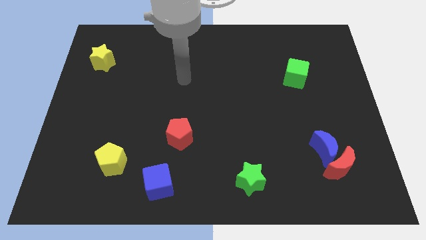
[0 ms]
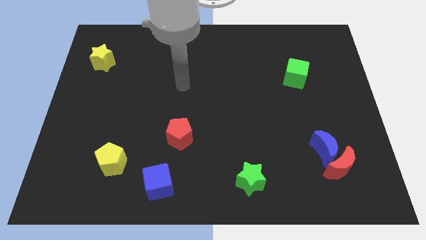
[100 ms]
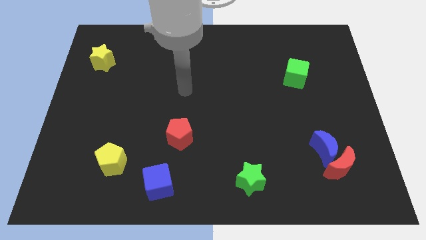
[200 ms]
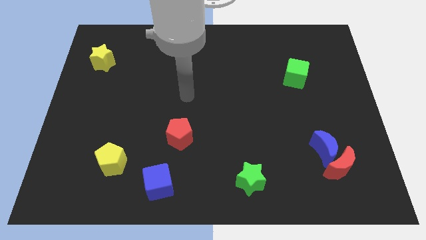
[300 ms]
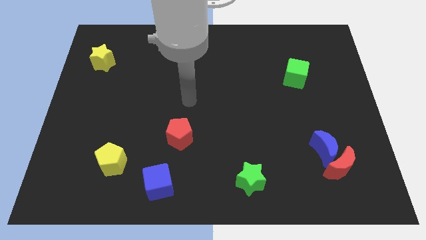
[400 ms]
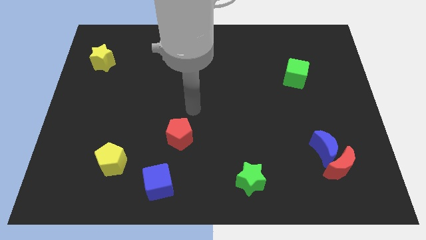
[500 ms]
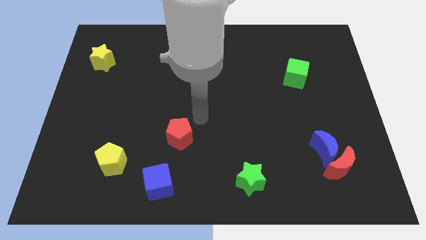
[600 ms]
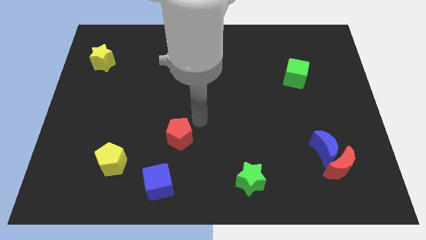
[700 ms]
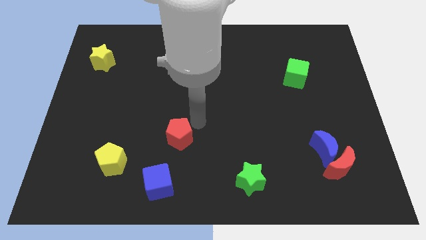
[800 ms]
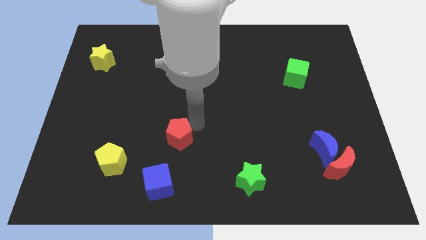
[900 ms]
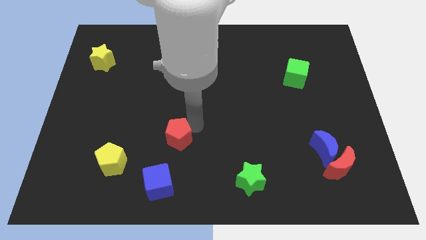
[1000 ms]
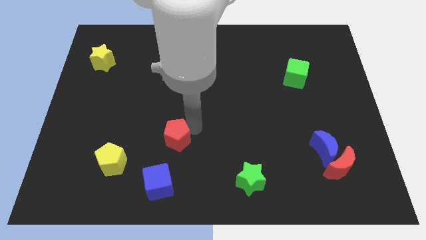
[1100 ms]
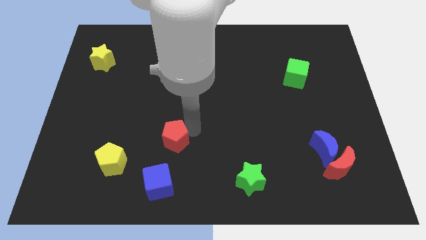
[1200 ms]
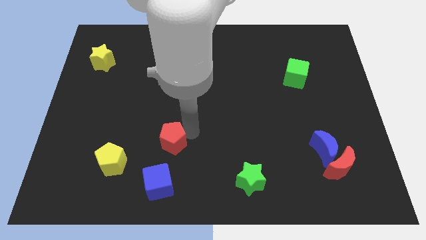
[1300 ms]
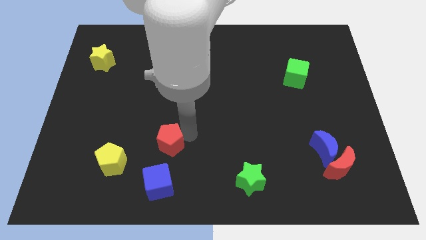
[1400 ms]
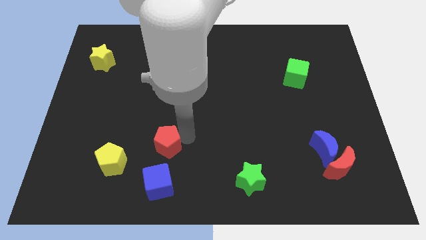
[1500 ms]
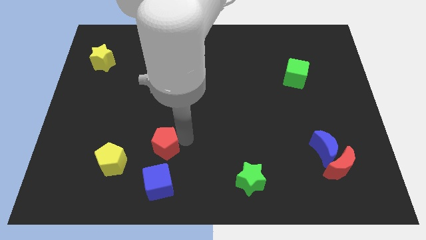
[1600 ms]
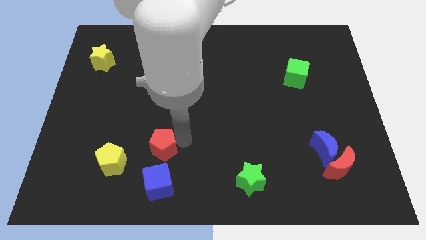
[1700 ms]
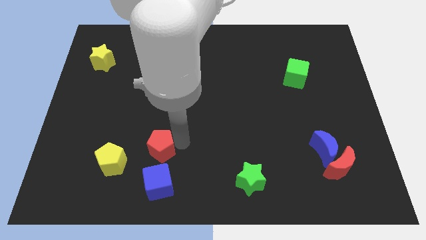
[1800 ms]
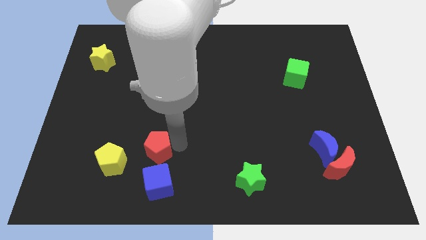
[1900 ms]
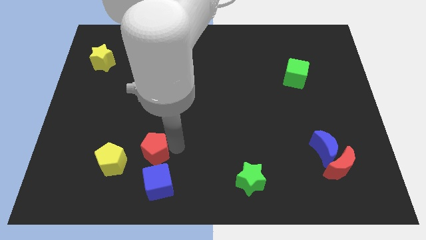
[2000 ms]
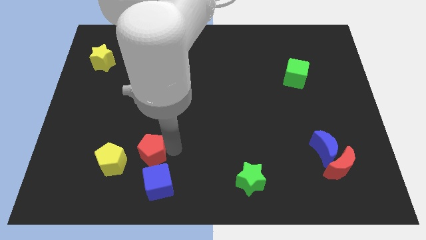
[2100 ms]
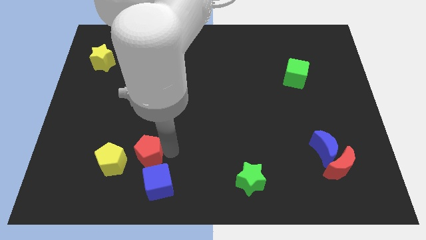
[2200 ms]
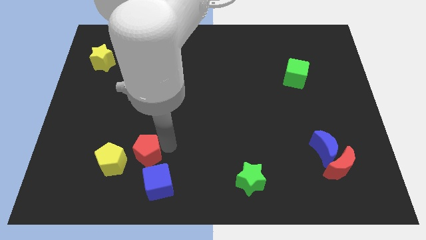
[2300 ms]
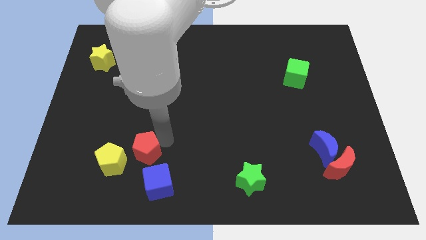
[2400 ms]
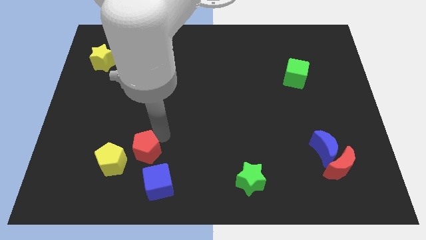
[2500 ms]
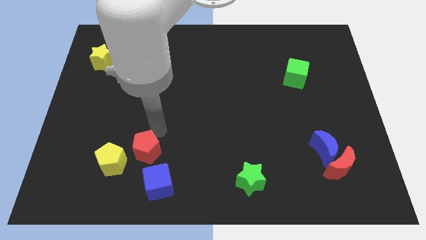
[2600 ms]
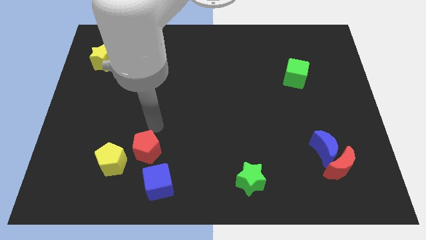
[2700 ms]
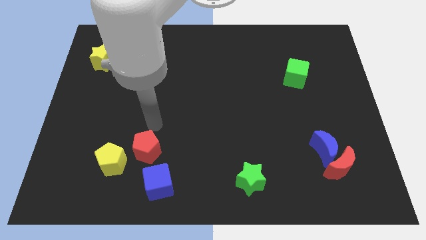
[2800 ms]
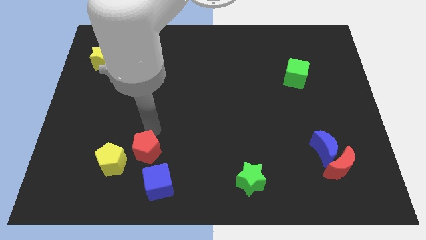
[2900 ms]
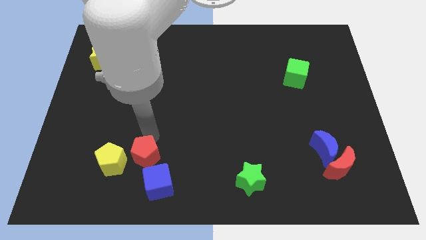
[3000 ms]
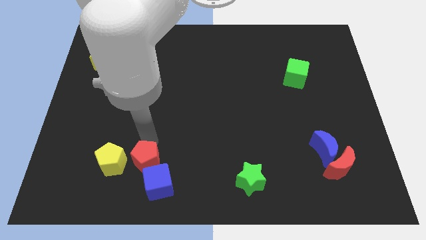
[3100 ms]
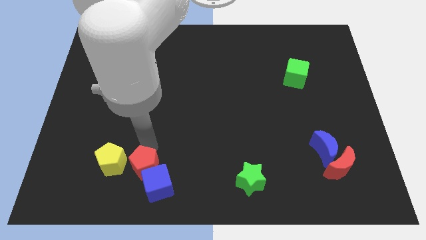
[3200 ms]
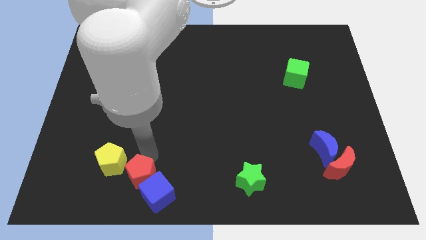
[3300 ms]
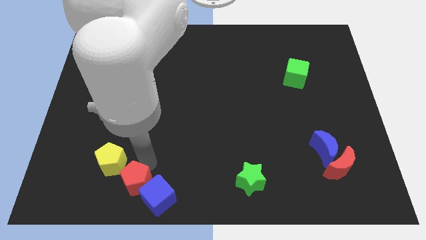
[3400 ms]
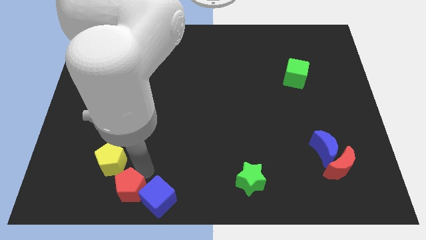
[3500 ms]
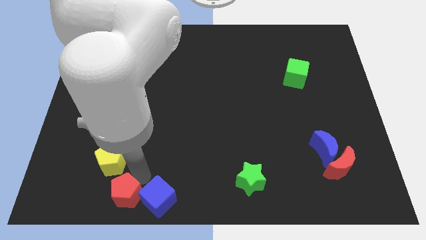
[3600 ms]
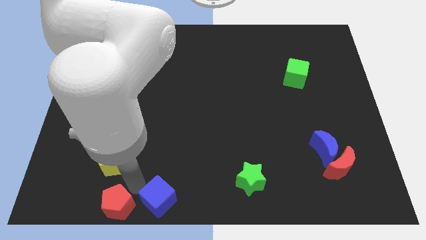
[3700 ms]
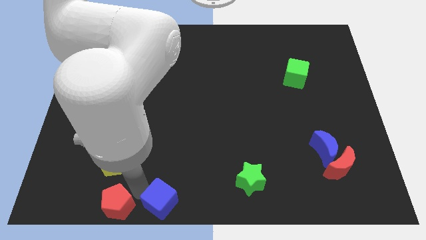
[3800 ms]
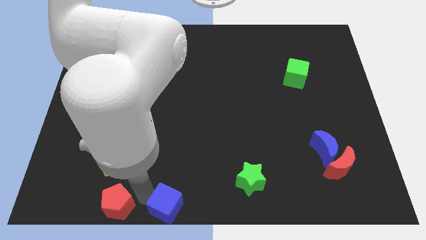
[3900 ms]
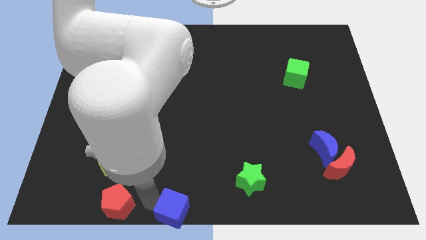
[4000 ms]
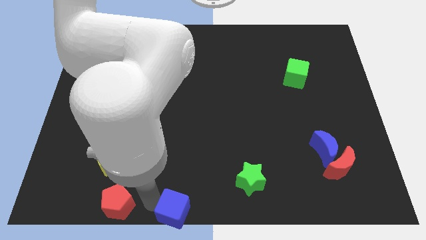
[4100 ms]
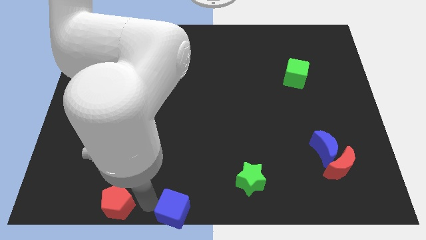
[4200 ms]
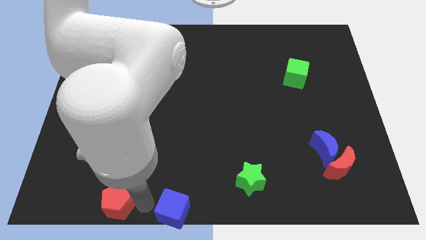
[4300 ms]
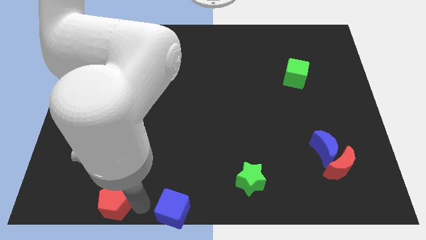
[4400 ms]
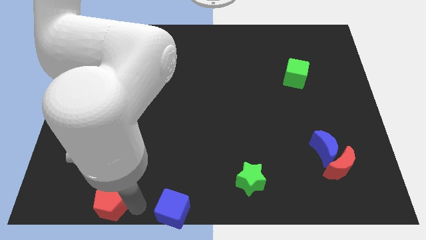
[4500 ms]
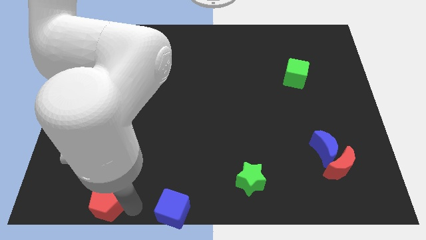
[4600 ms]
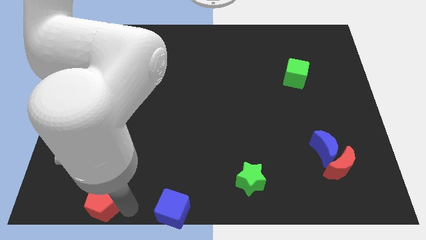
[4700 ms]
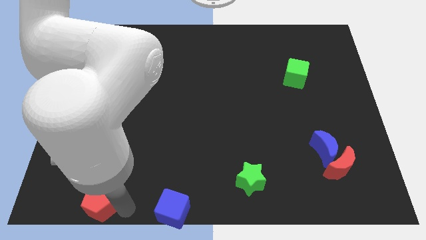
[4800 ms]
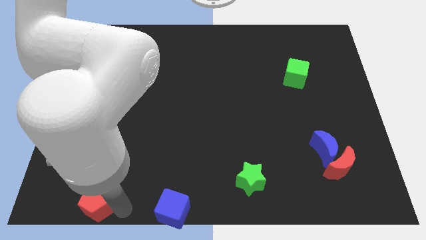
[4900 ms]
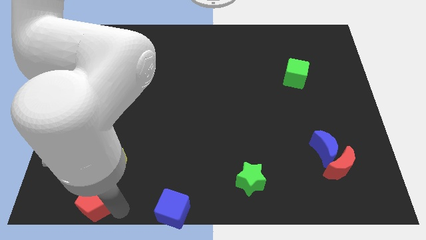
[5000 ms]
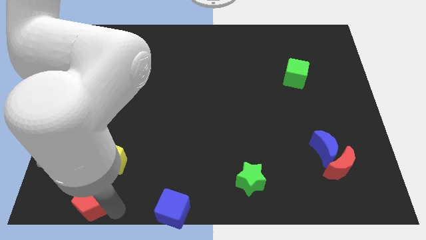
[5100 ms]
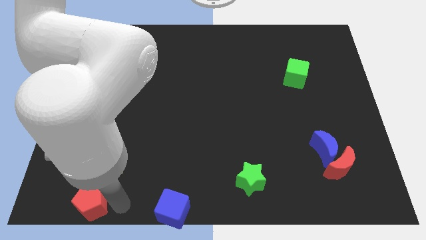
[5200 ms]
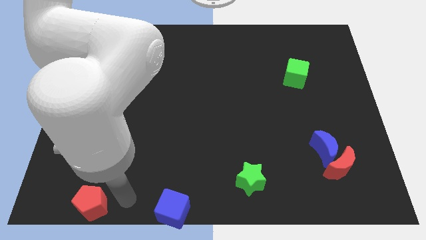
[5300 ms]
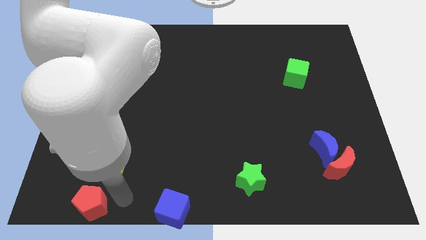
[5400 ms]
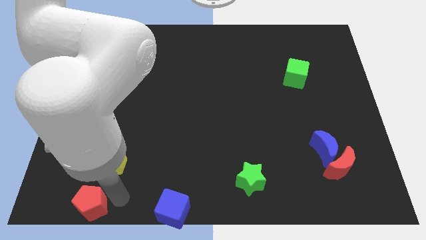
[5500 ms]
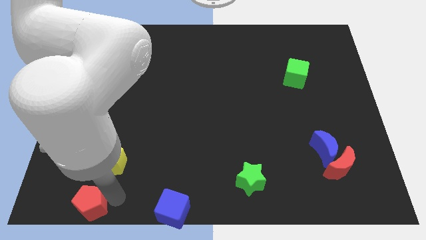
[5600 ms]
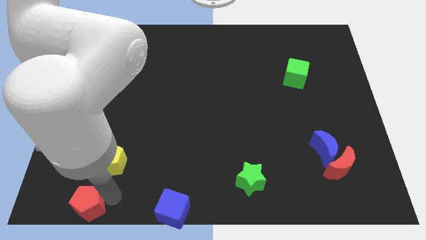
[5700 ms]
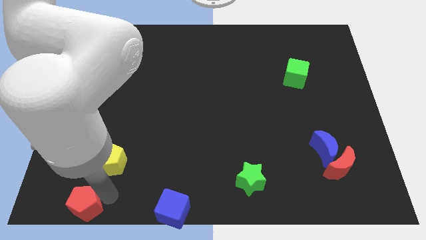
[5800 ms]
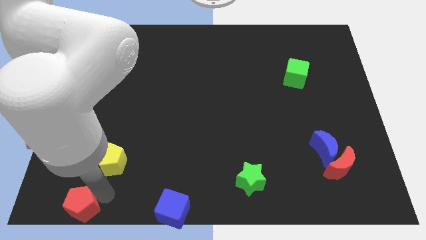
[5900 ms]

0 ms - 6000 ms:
push the red pentagon to the lower left corner
